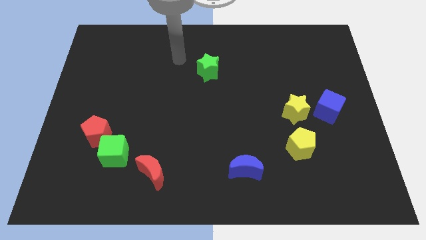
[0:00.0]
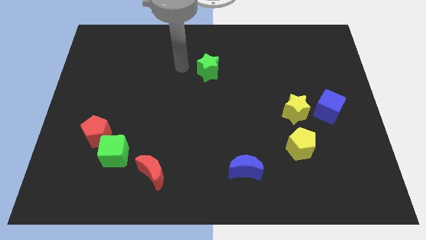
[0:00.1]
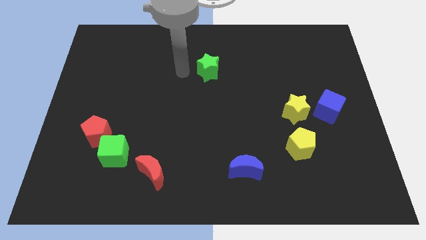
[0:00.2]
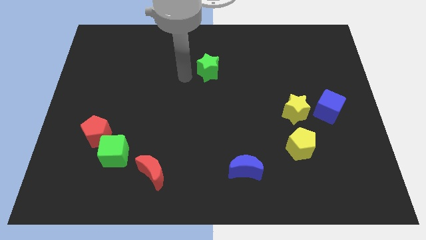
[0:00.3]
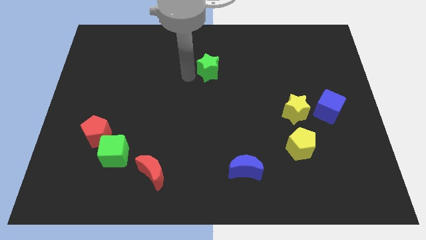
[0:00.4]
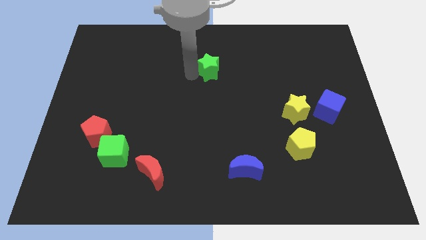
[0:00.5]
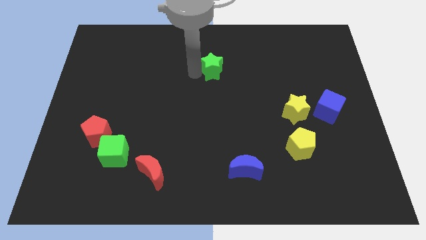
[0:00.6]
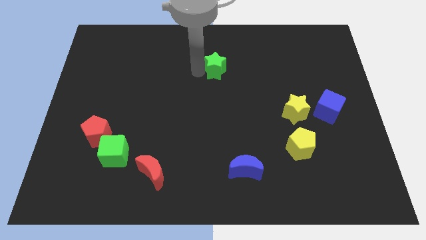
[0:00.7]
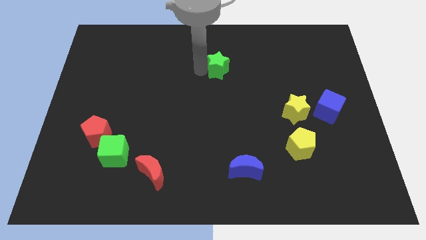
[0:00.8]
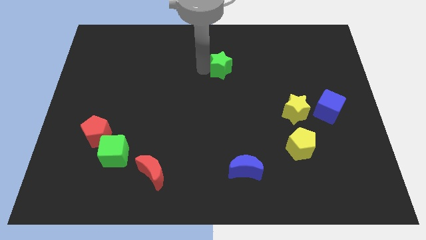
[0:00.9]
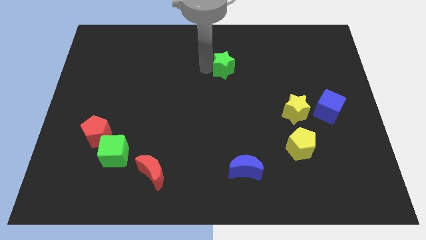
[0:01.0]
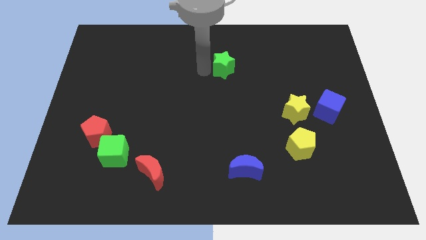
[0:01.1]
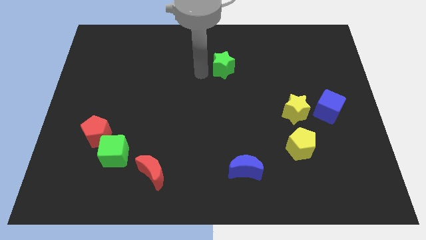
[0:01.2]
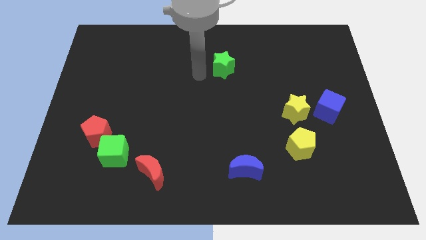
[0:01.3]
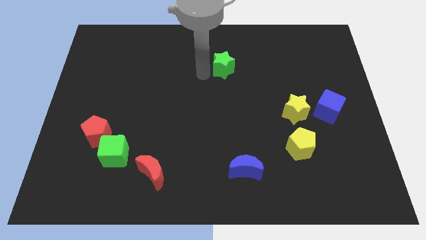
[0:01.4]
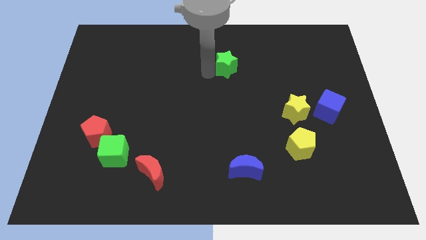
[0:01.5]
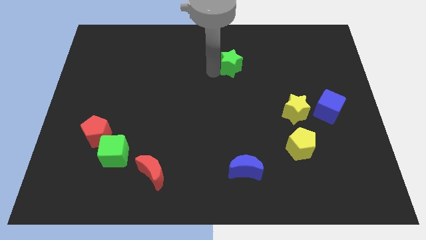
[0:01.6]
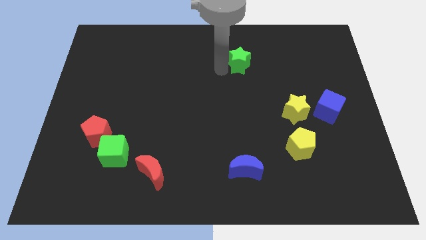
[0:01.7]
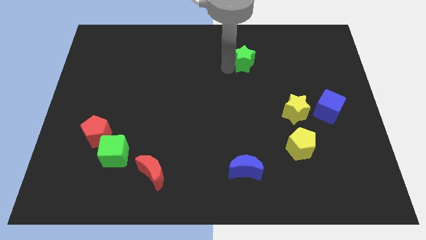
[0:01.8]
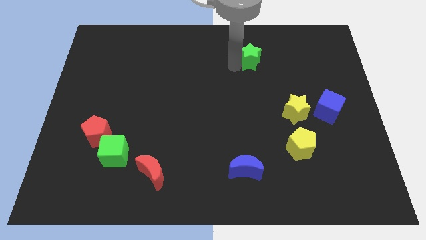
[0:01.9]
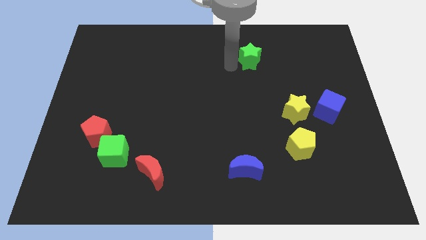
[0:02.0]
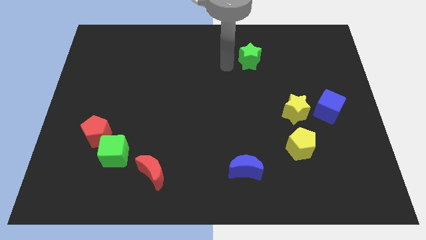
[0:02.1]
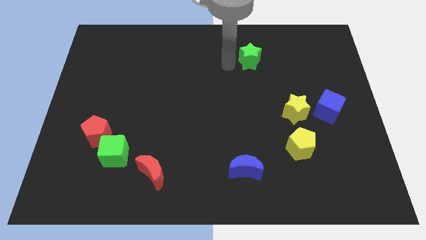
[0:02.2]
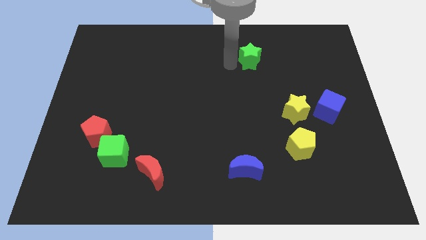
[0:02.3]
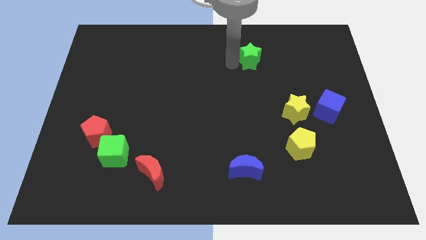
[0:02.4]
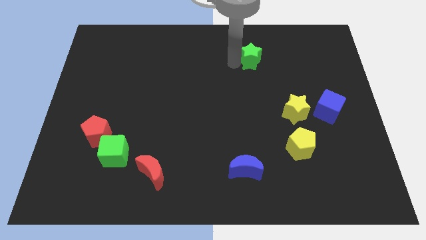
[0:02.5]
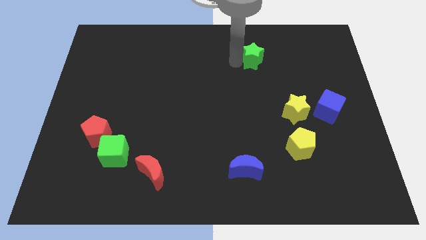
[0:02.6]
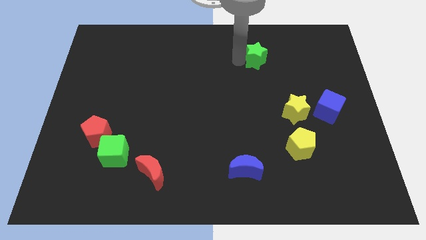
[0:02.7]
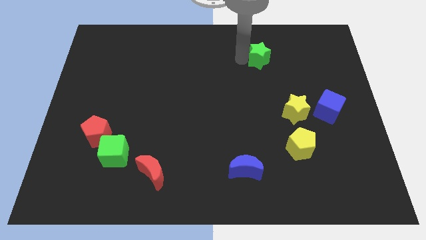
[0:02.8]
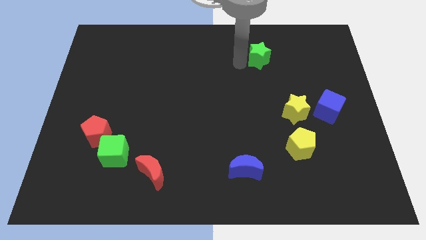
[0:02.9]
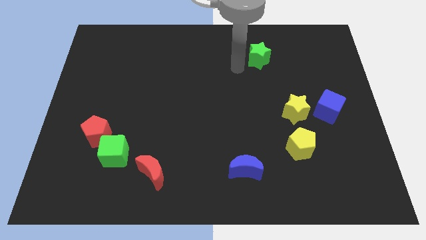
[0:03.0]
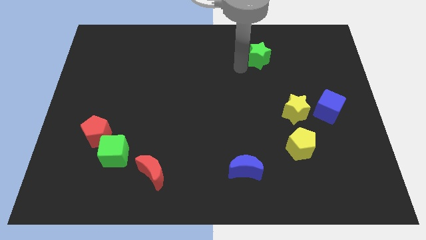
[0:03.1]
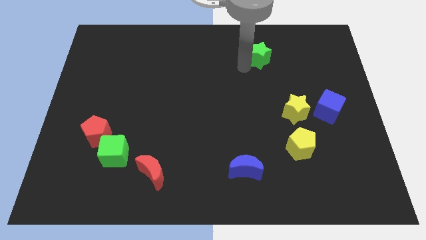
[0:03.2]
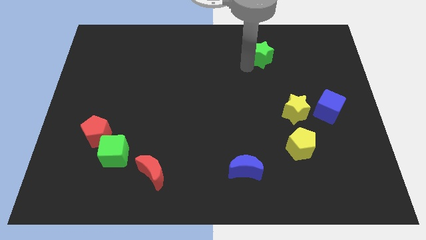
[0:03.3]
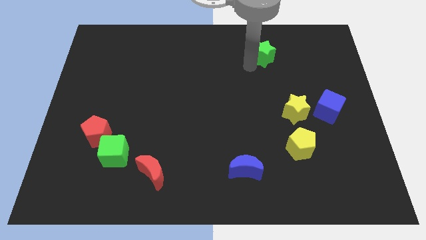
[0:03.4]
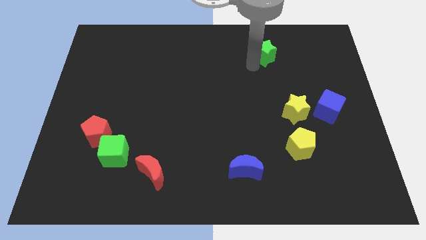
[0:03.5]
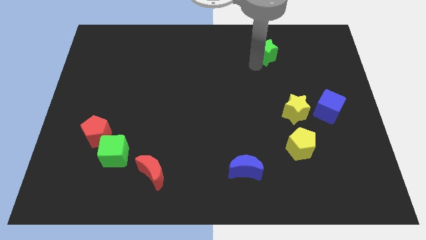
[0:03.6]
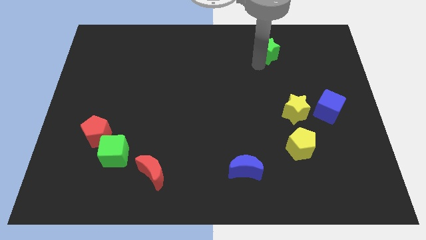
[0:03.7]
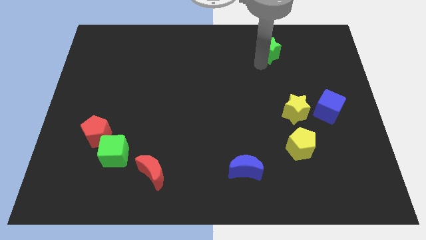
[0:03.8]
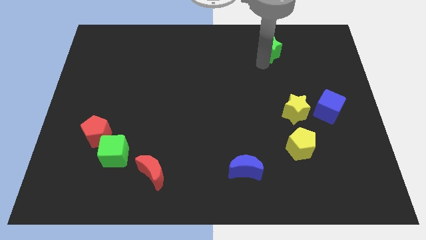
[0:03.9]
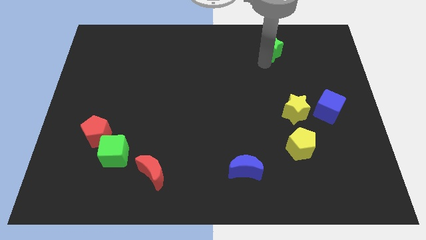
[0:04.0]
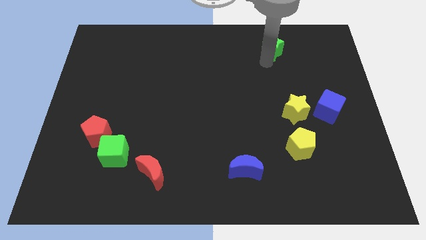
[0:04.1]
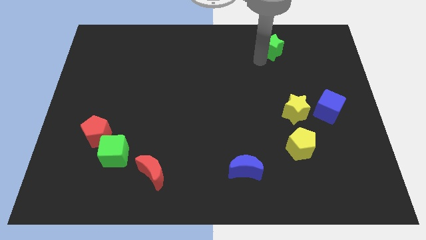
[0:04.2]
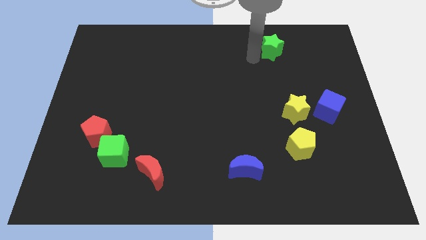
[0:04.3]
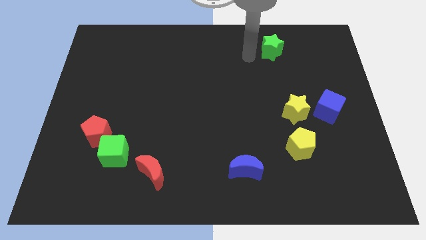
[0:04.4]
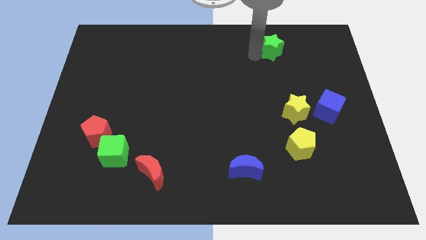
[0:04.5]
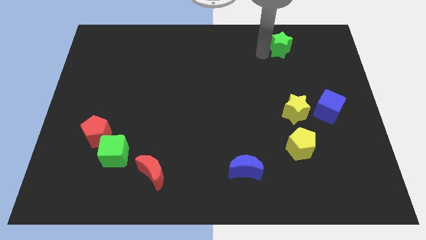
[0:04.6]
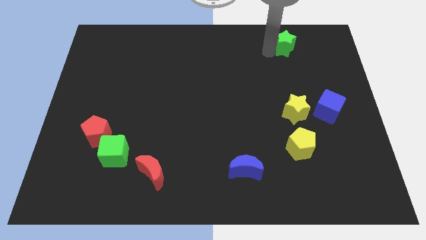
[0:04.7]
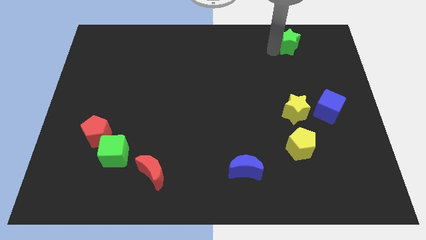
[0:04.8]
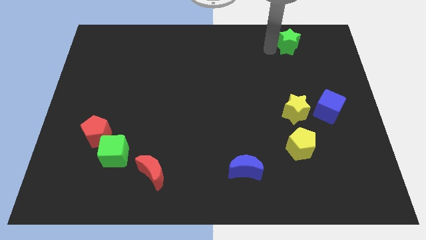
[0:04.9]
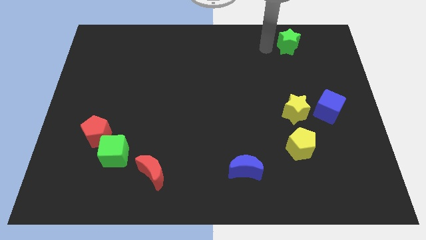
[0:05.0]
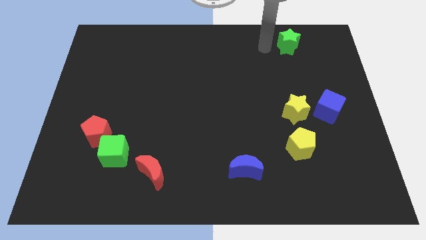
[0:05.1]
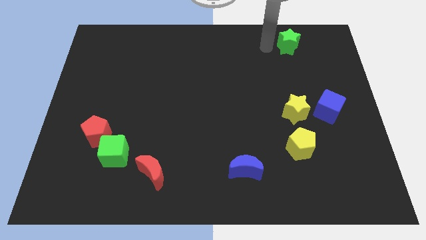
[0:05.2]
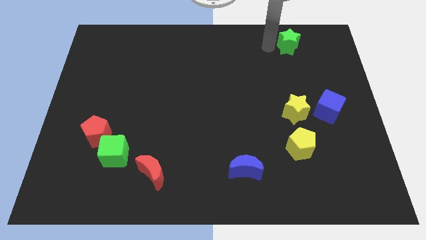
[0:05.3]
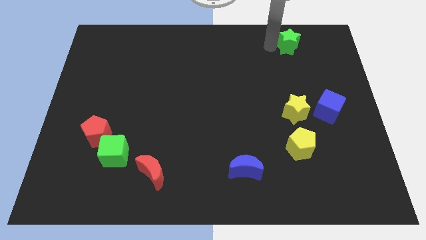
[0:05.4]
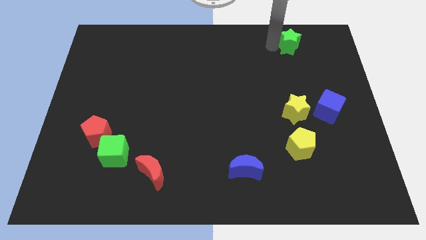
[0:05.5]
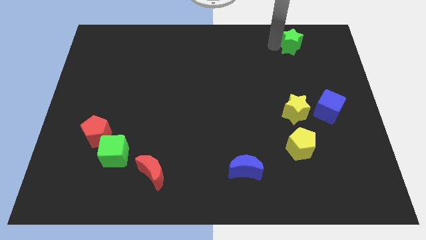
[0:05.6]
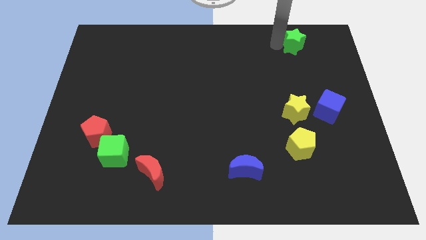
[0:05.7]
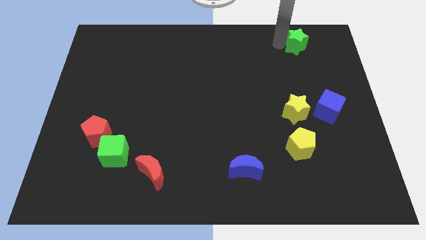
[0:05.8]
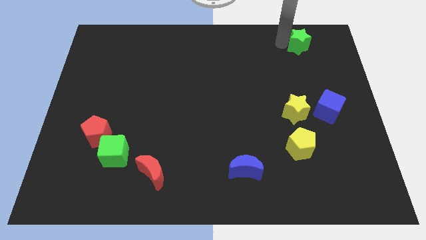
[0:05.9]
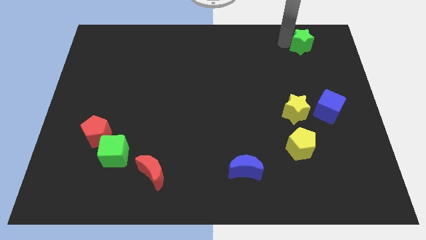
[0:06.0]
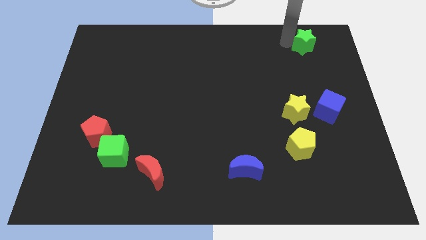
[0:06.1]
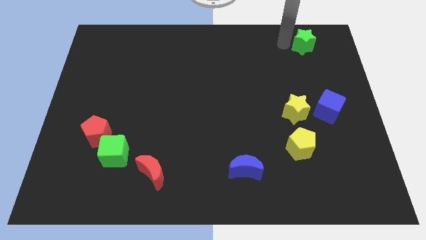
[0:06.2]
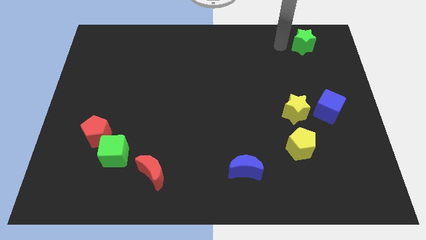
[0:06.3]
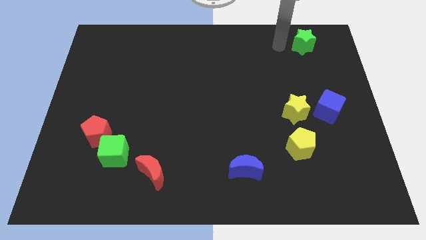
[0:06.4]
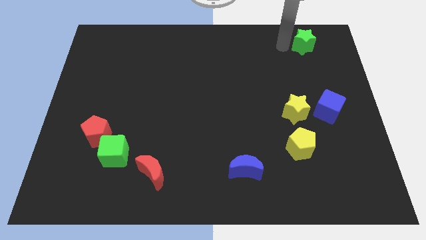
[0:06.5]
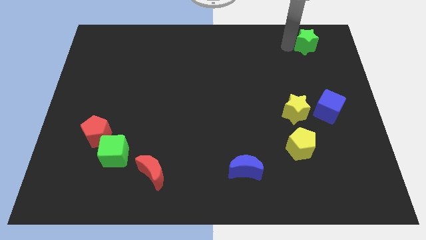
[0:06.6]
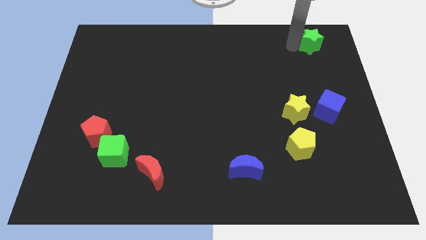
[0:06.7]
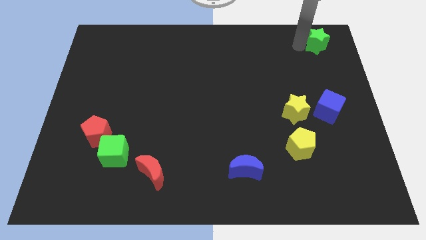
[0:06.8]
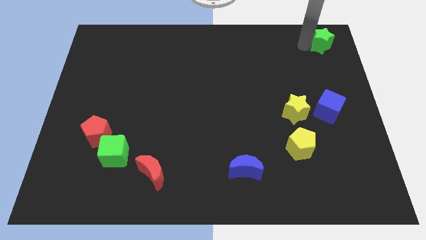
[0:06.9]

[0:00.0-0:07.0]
slide the green star to the upper right corner
